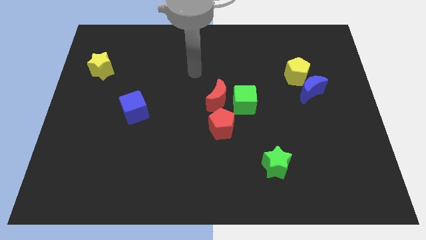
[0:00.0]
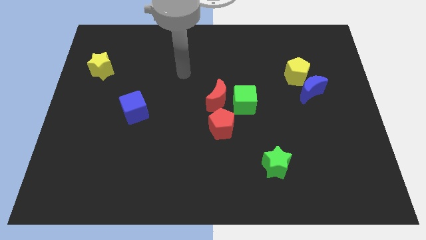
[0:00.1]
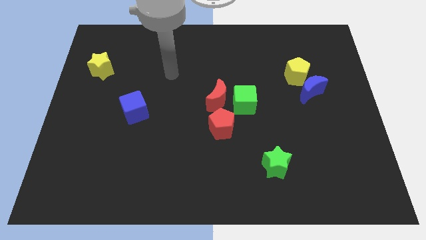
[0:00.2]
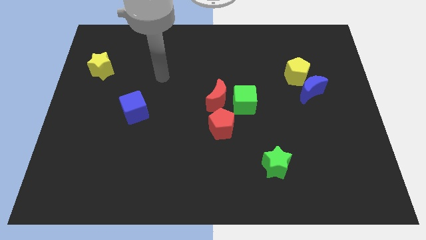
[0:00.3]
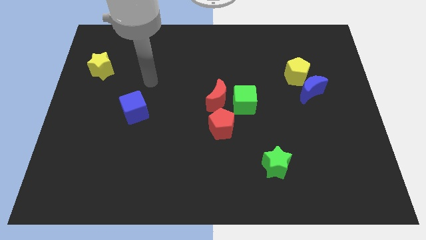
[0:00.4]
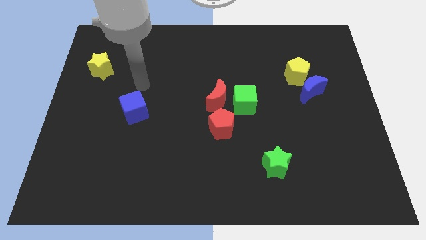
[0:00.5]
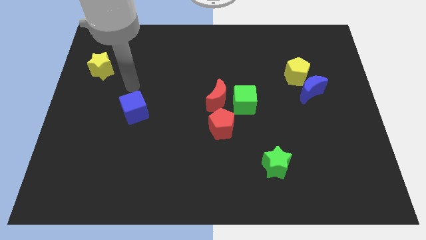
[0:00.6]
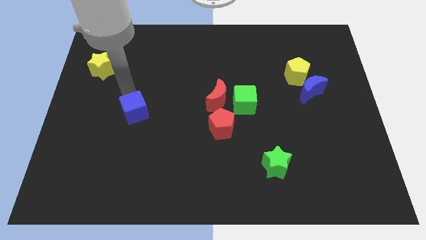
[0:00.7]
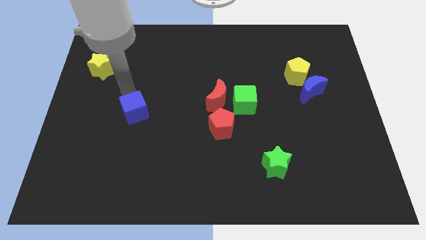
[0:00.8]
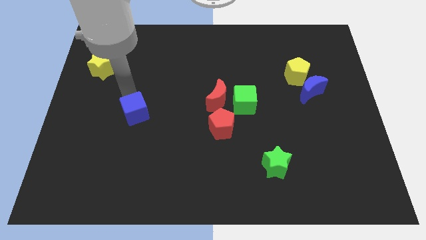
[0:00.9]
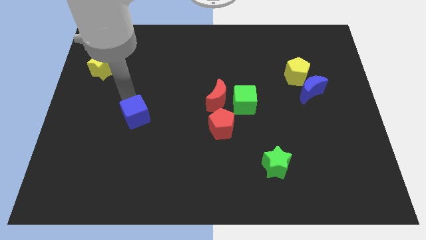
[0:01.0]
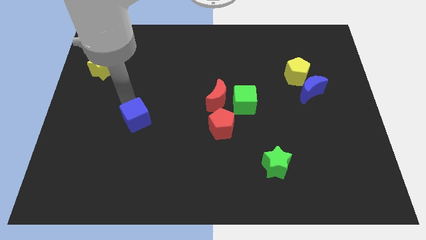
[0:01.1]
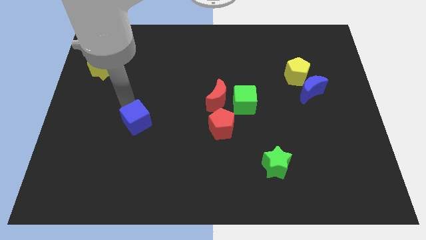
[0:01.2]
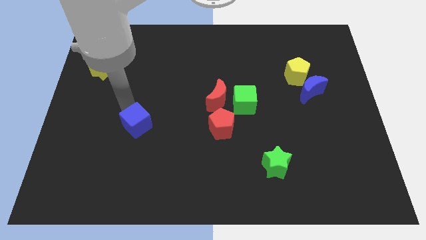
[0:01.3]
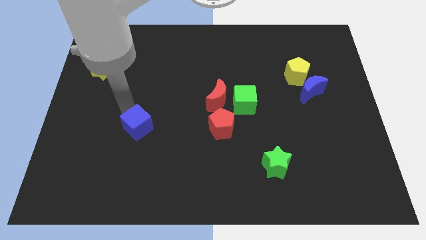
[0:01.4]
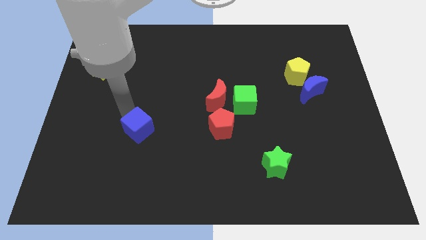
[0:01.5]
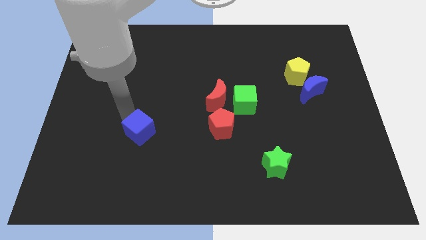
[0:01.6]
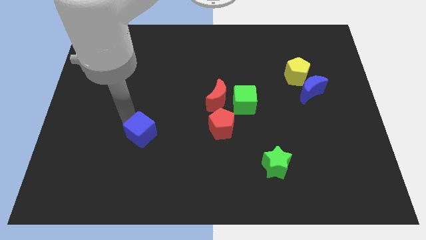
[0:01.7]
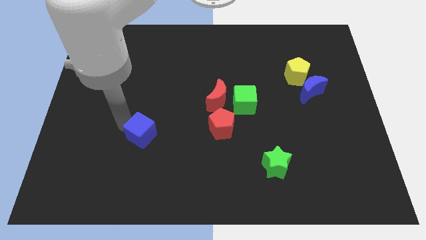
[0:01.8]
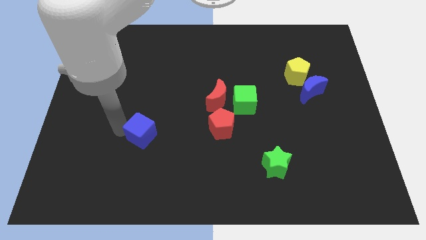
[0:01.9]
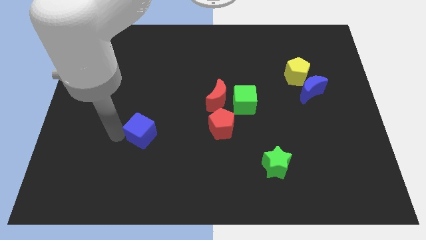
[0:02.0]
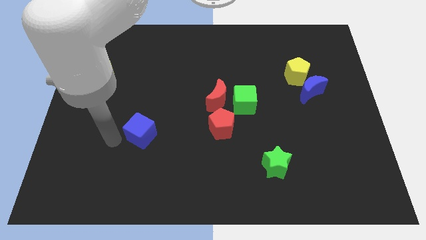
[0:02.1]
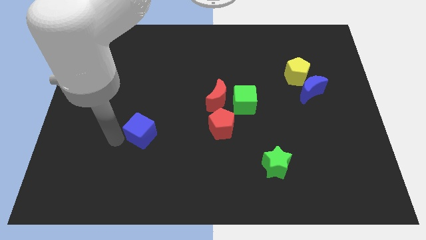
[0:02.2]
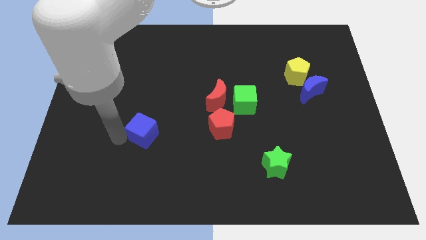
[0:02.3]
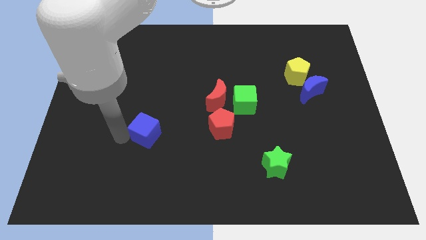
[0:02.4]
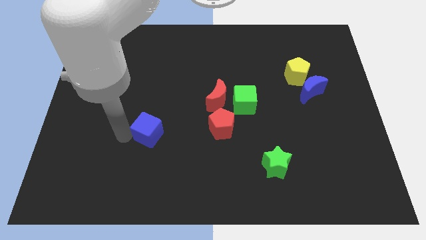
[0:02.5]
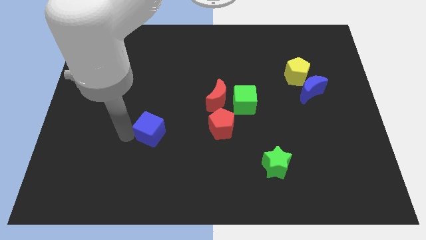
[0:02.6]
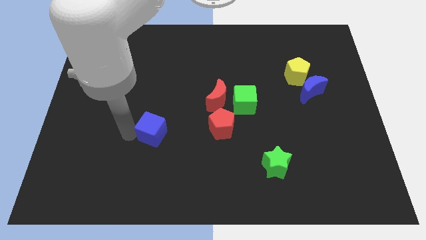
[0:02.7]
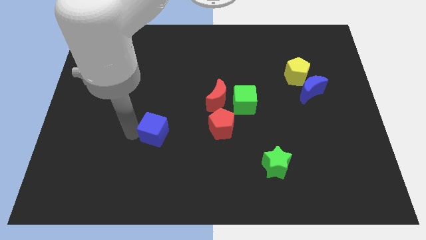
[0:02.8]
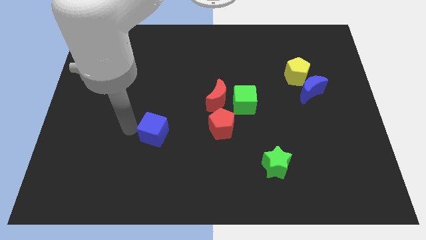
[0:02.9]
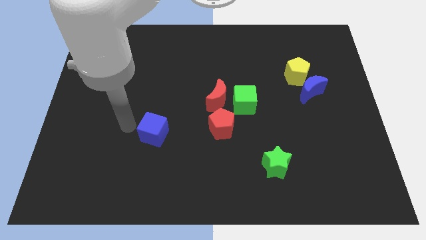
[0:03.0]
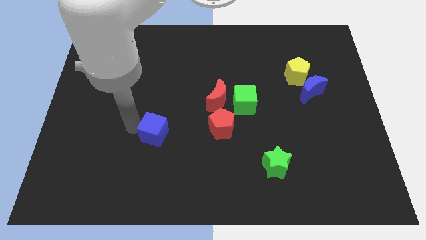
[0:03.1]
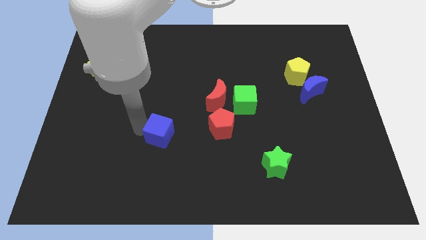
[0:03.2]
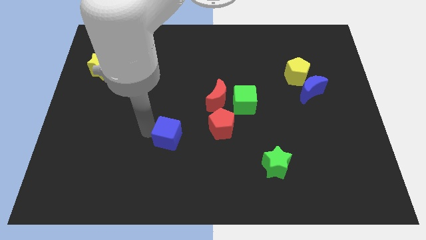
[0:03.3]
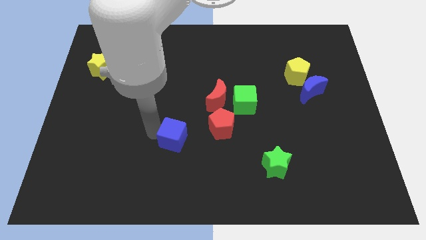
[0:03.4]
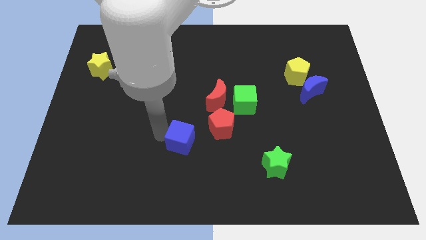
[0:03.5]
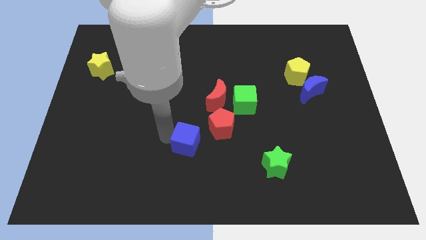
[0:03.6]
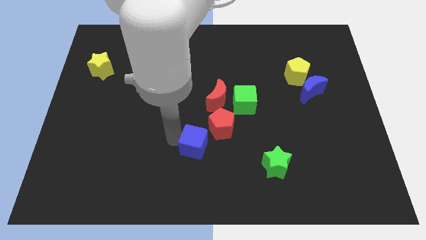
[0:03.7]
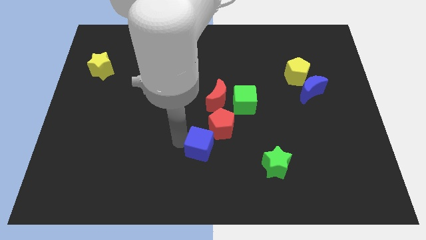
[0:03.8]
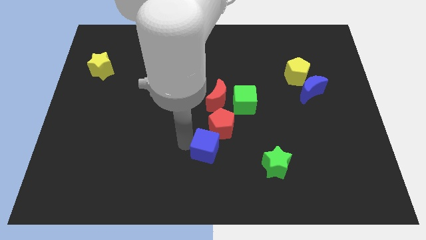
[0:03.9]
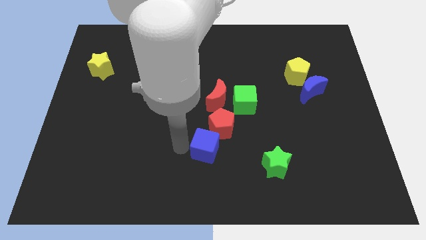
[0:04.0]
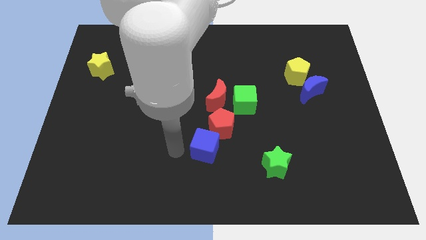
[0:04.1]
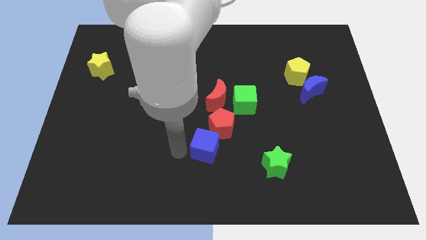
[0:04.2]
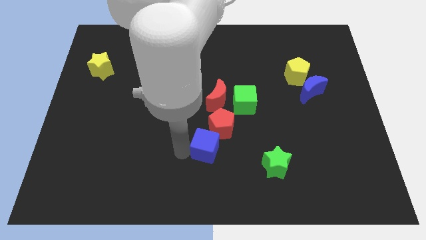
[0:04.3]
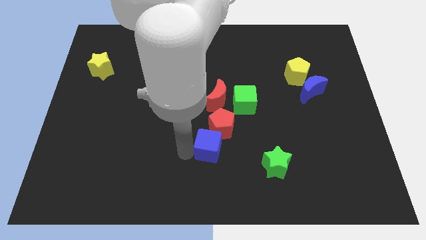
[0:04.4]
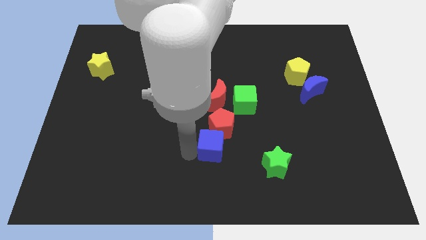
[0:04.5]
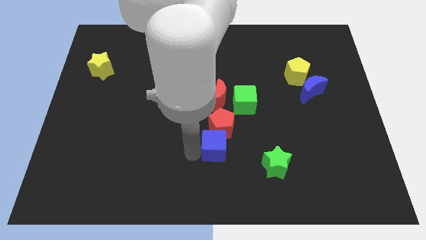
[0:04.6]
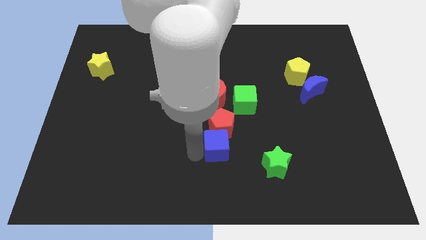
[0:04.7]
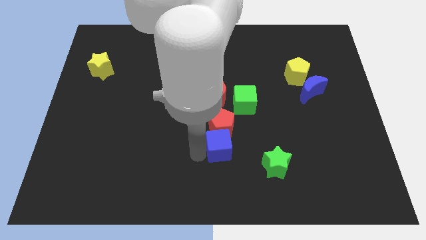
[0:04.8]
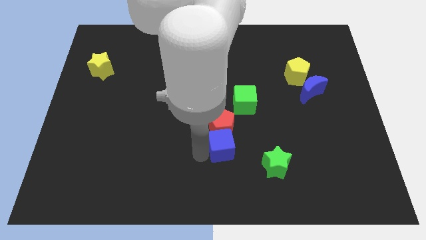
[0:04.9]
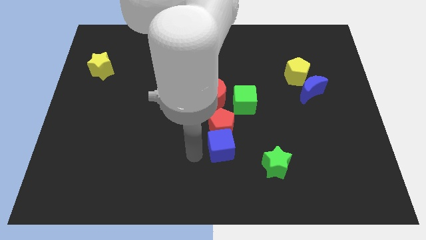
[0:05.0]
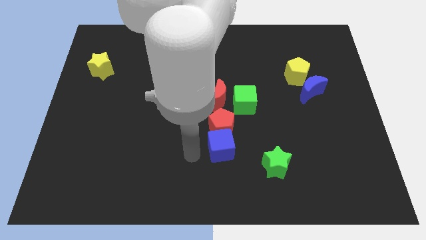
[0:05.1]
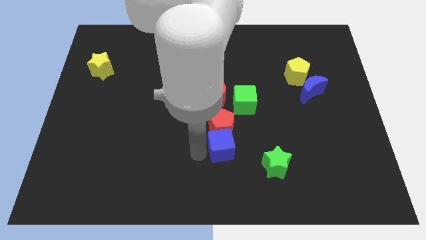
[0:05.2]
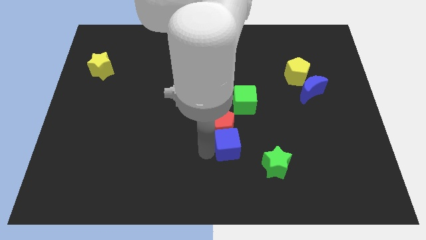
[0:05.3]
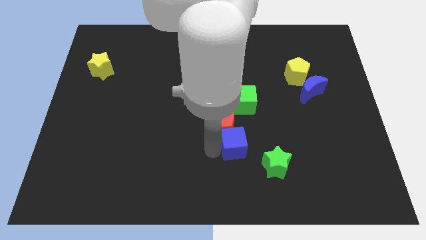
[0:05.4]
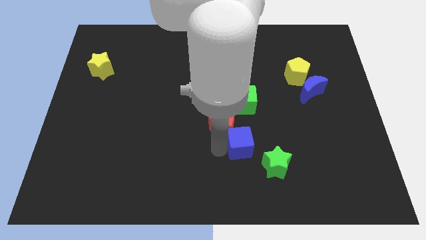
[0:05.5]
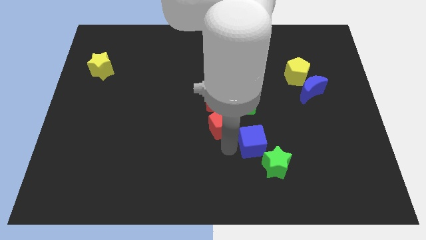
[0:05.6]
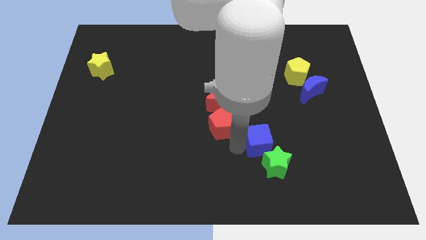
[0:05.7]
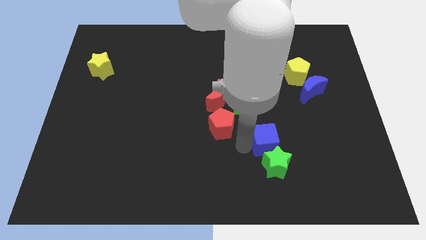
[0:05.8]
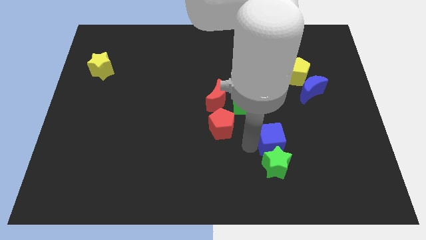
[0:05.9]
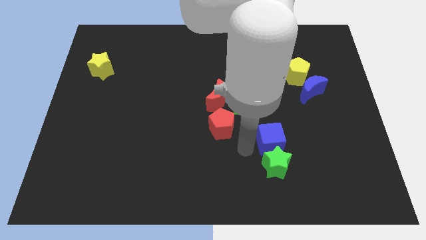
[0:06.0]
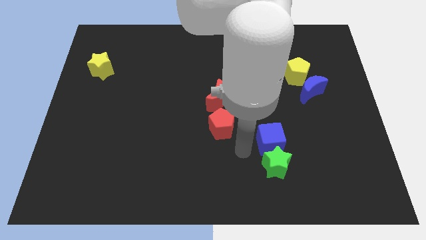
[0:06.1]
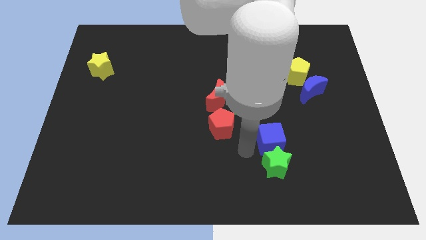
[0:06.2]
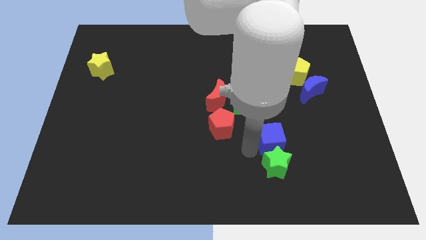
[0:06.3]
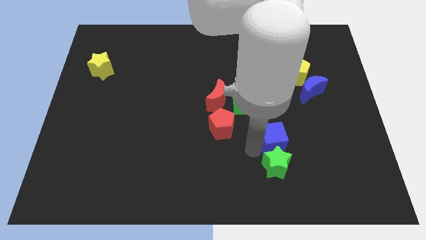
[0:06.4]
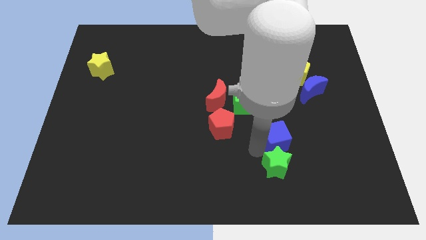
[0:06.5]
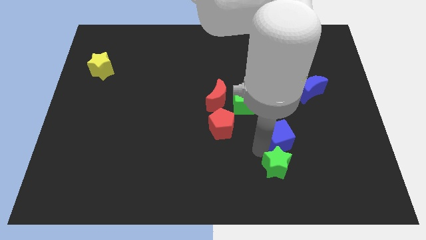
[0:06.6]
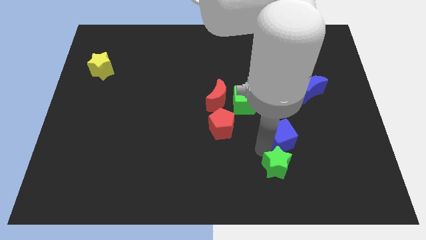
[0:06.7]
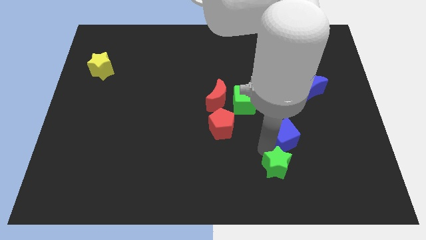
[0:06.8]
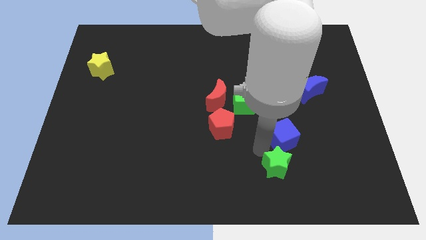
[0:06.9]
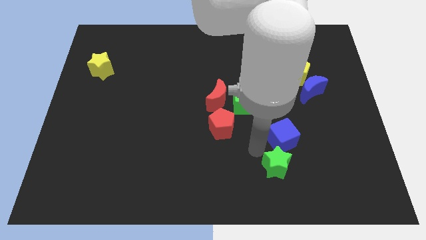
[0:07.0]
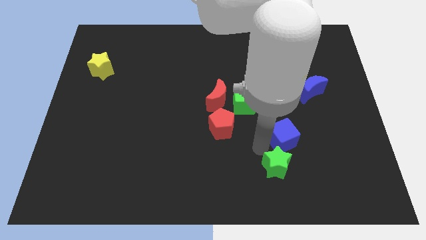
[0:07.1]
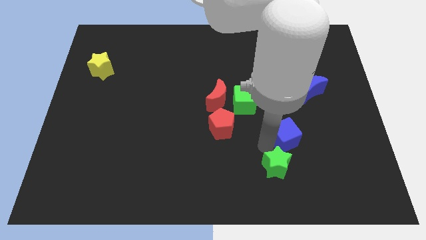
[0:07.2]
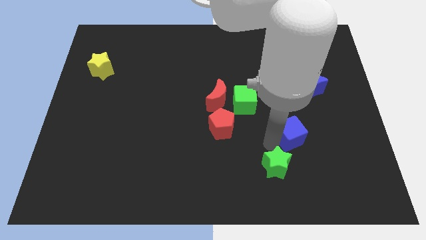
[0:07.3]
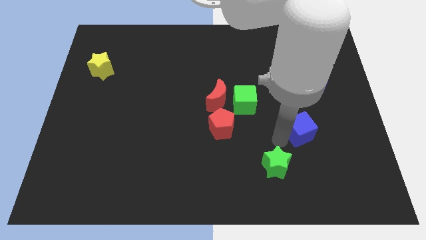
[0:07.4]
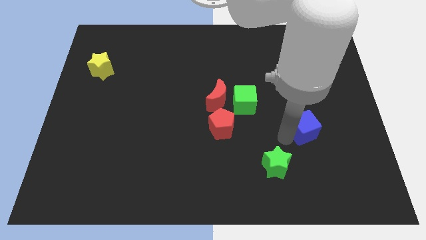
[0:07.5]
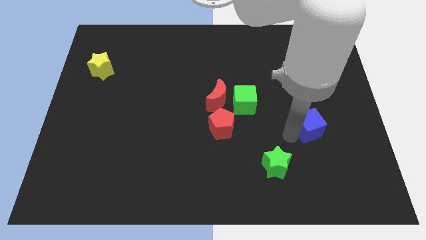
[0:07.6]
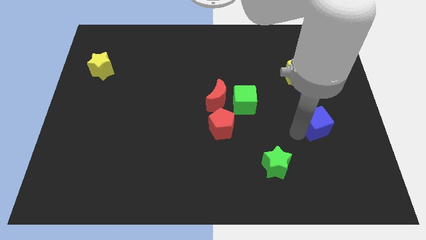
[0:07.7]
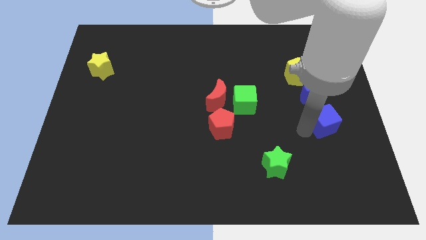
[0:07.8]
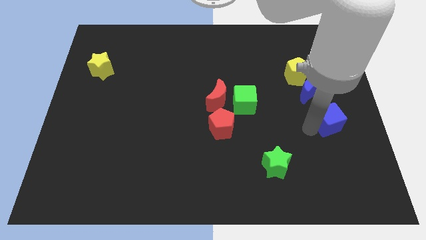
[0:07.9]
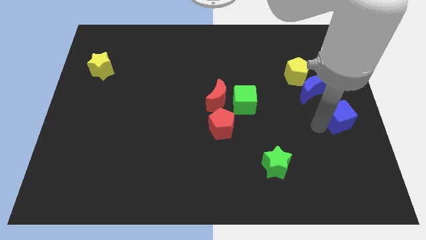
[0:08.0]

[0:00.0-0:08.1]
push the blue cube to the right side
